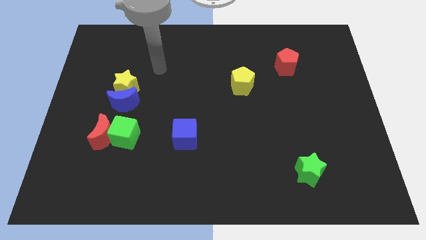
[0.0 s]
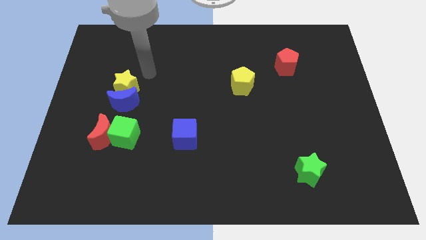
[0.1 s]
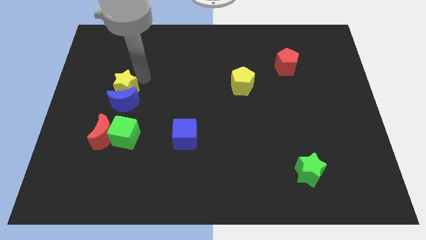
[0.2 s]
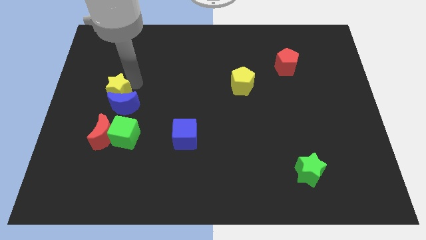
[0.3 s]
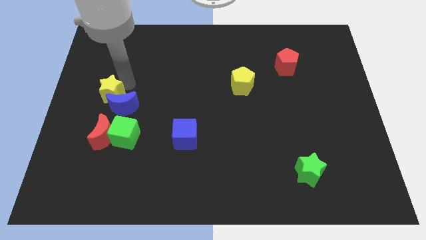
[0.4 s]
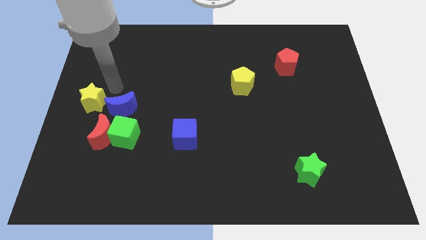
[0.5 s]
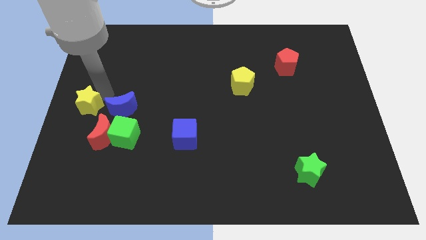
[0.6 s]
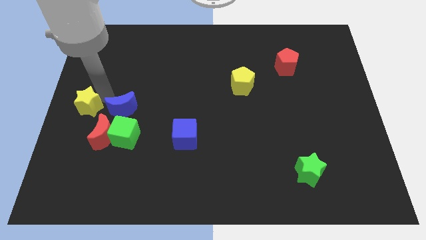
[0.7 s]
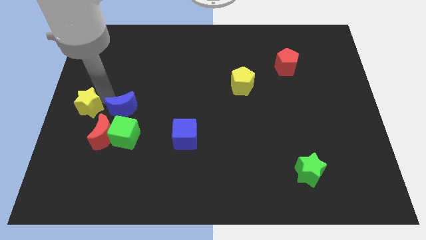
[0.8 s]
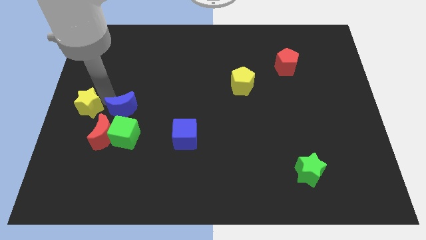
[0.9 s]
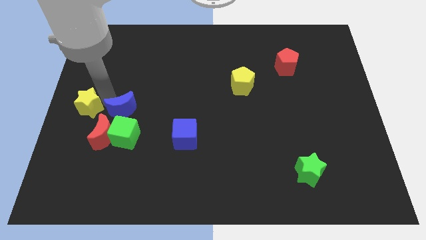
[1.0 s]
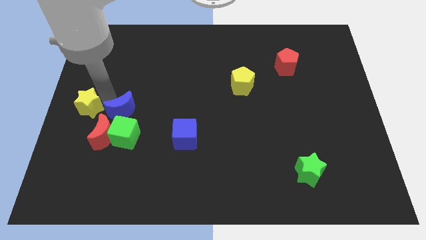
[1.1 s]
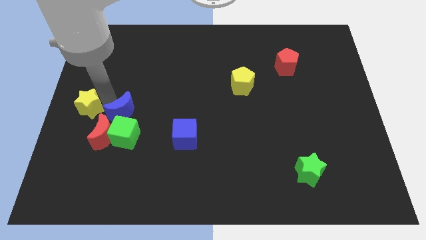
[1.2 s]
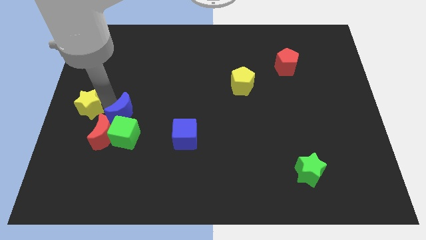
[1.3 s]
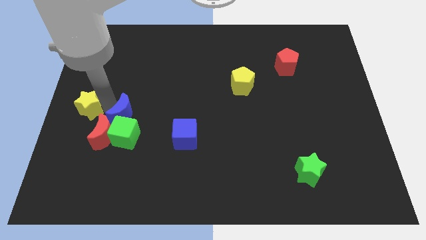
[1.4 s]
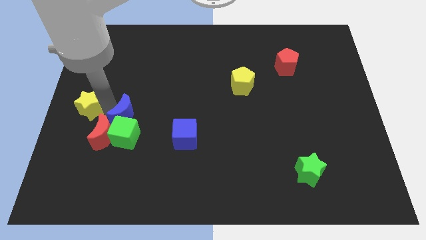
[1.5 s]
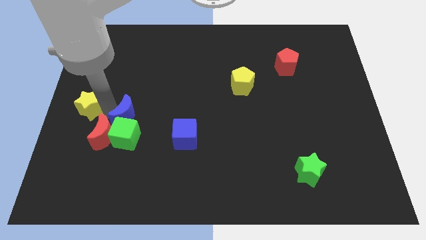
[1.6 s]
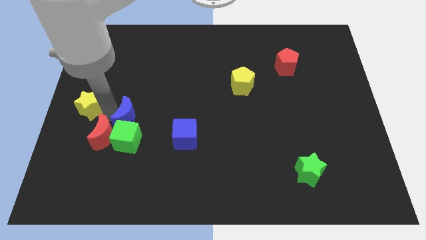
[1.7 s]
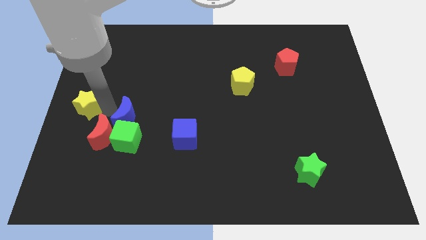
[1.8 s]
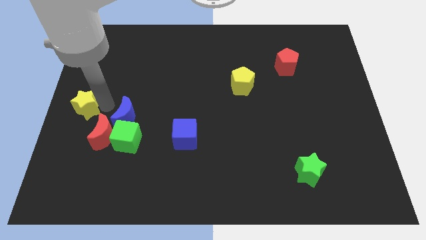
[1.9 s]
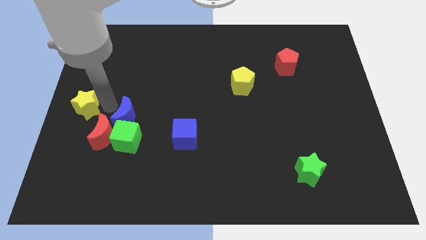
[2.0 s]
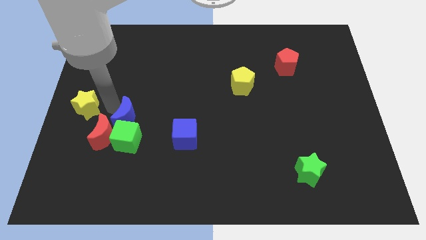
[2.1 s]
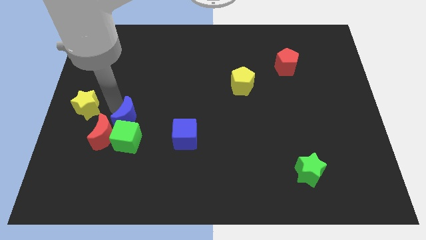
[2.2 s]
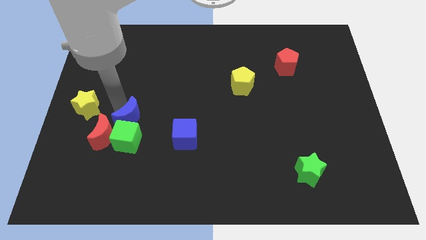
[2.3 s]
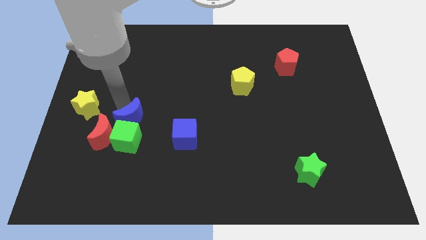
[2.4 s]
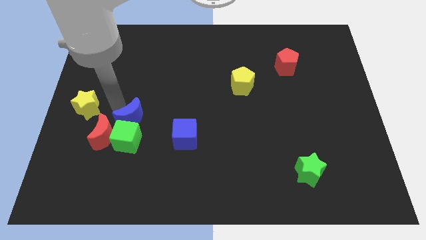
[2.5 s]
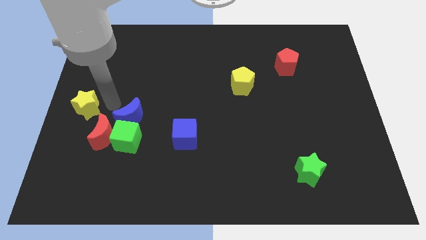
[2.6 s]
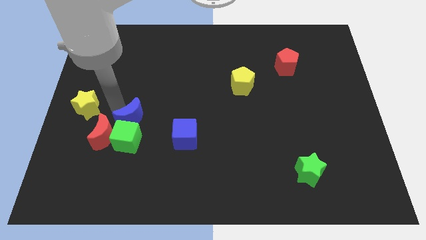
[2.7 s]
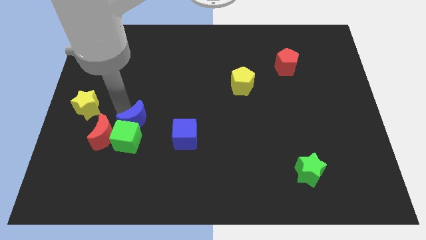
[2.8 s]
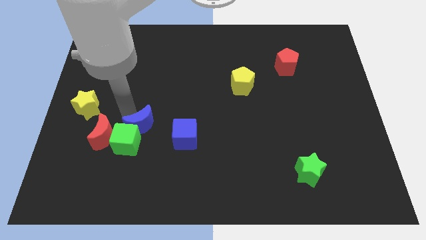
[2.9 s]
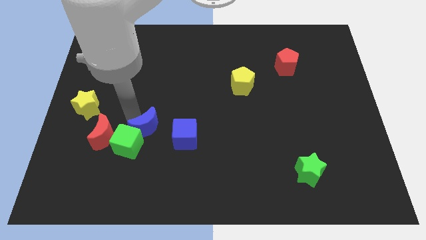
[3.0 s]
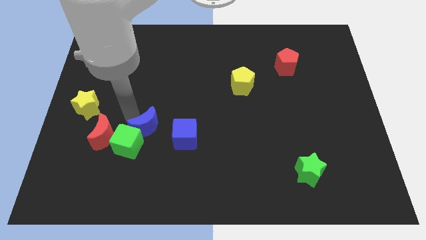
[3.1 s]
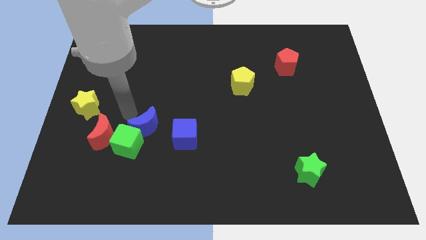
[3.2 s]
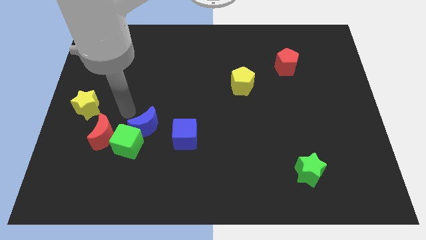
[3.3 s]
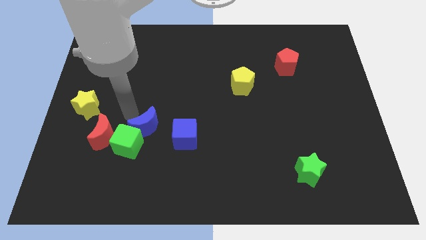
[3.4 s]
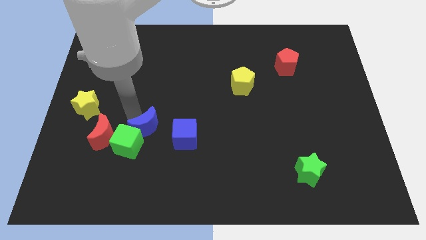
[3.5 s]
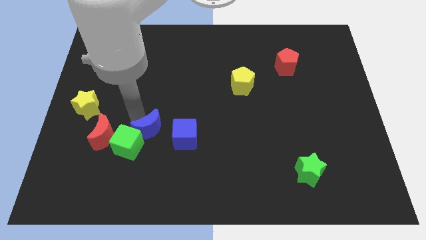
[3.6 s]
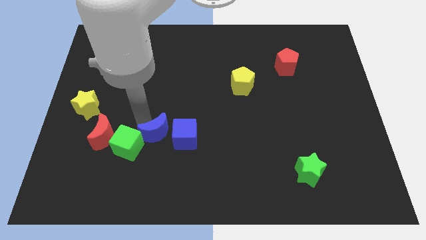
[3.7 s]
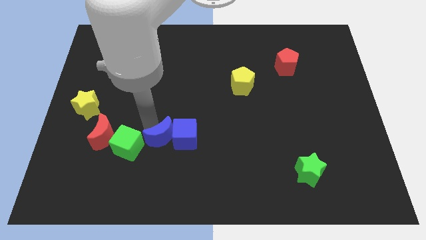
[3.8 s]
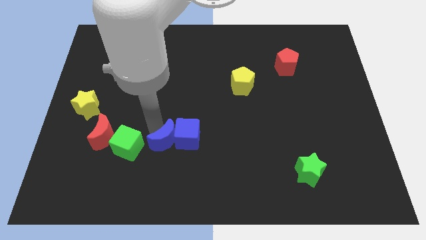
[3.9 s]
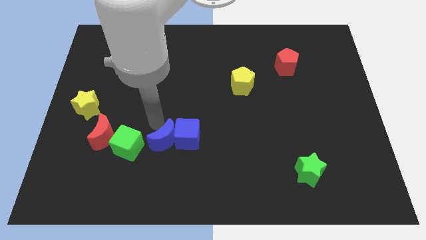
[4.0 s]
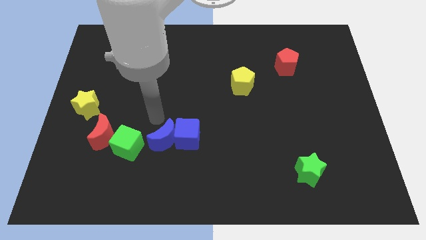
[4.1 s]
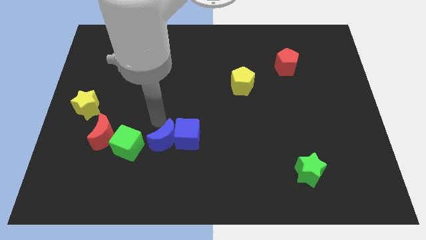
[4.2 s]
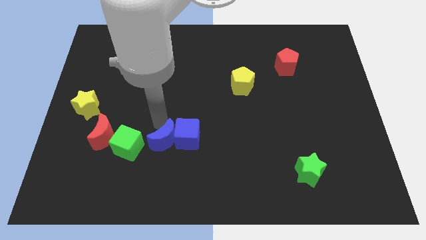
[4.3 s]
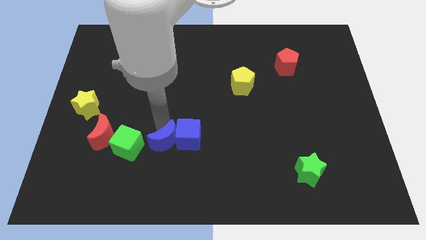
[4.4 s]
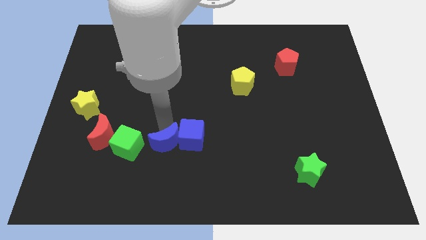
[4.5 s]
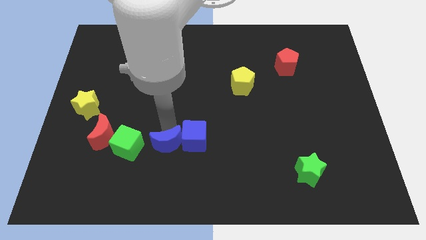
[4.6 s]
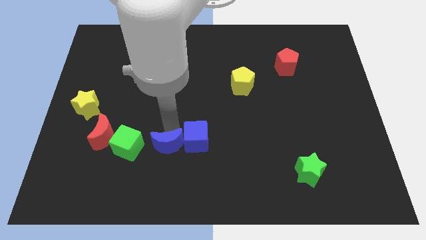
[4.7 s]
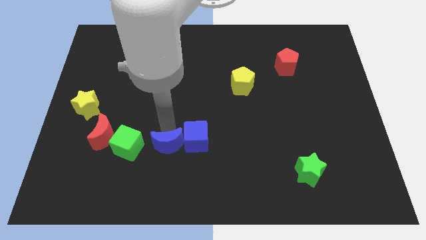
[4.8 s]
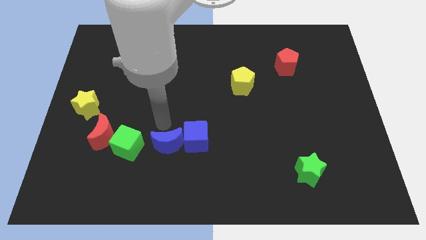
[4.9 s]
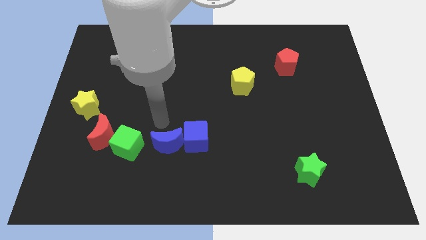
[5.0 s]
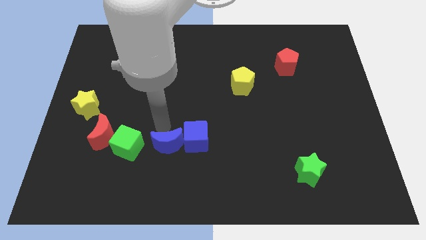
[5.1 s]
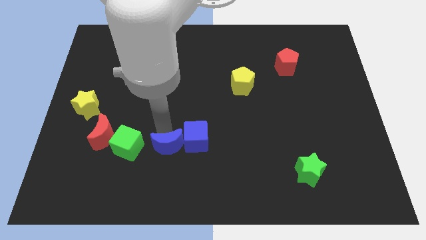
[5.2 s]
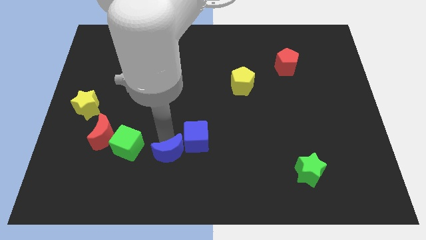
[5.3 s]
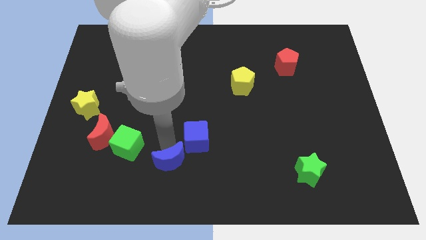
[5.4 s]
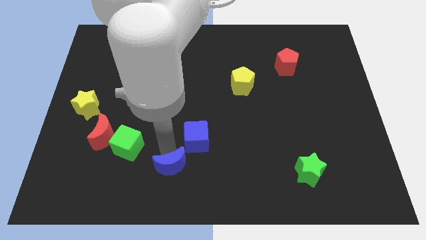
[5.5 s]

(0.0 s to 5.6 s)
push the blue moon to the bottom side

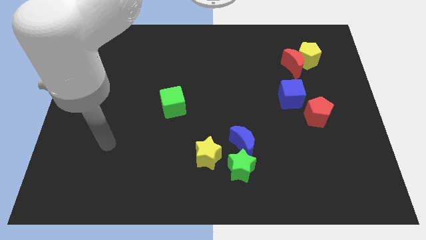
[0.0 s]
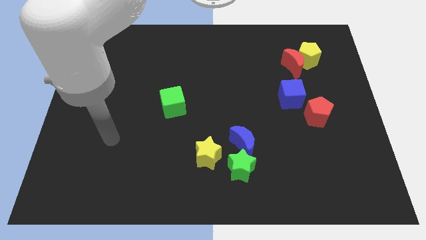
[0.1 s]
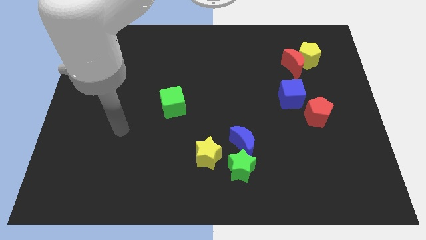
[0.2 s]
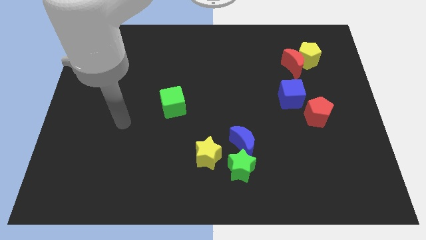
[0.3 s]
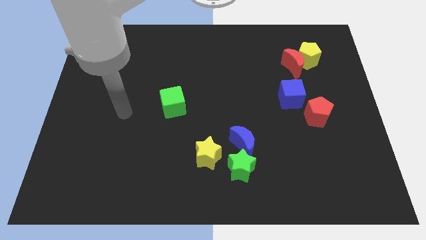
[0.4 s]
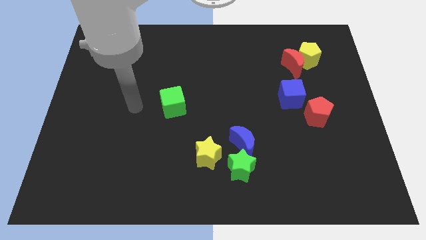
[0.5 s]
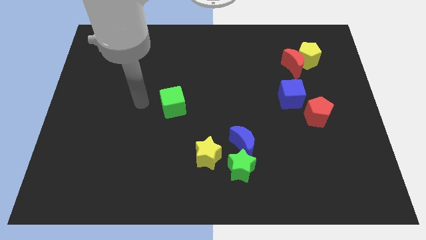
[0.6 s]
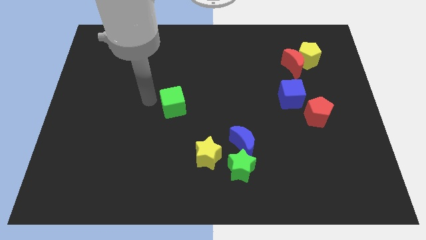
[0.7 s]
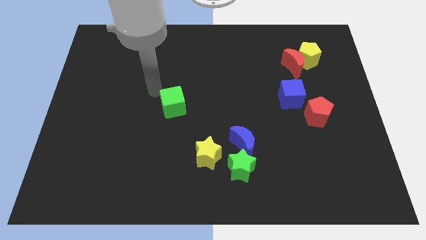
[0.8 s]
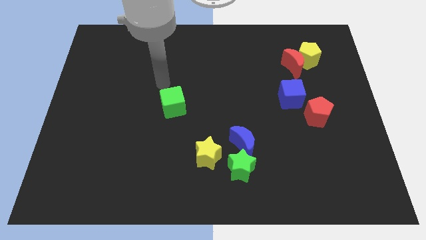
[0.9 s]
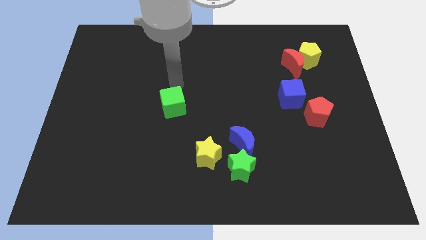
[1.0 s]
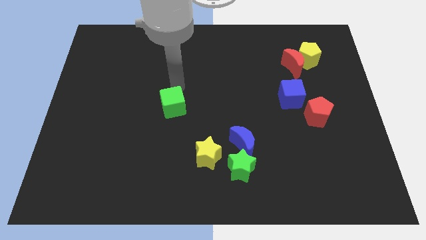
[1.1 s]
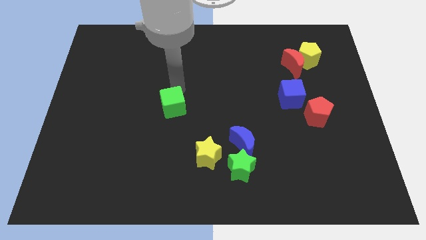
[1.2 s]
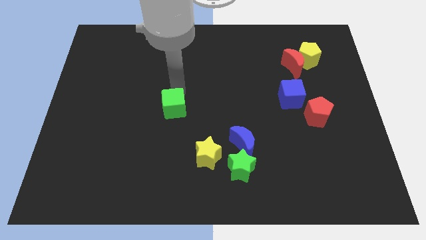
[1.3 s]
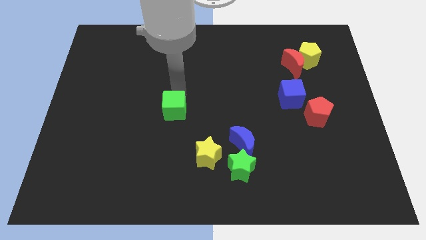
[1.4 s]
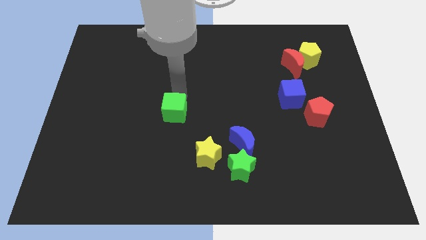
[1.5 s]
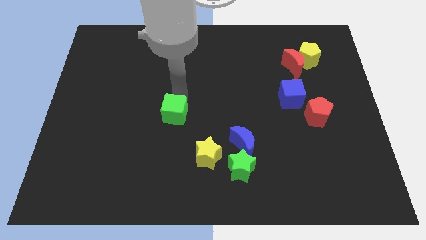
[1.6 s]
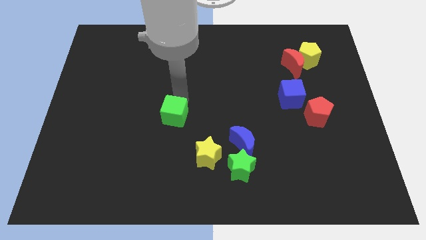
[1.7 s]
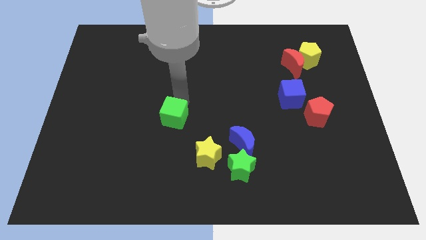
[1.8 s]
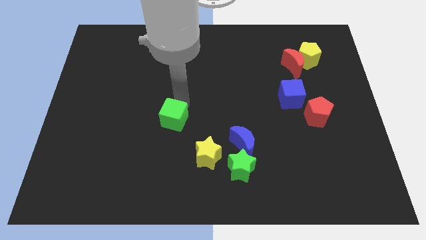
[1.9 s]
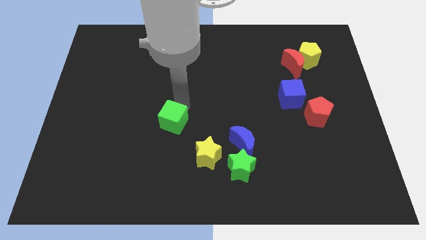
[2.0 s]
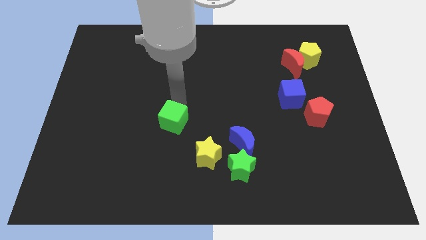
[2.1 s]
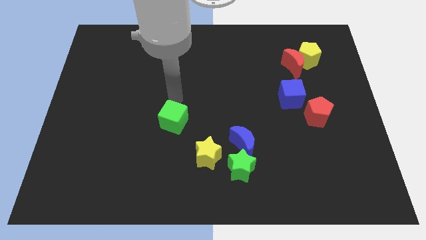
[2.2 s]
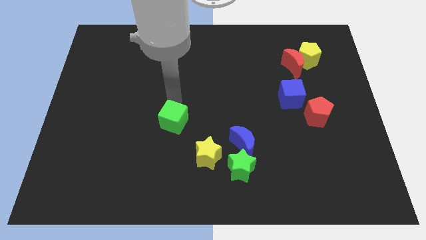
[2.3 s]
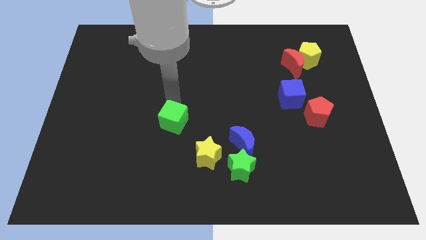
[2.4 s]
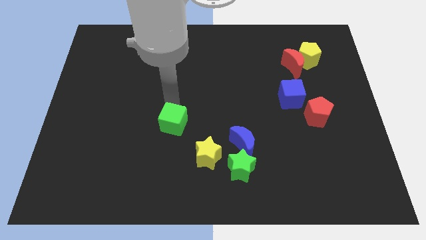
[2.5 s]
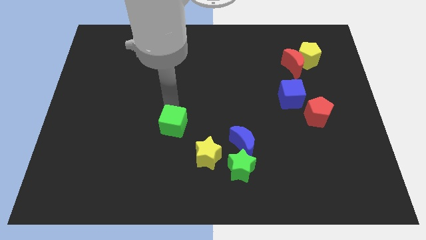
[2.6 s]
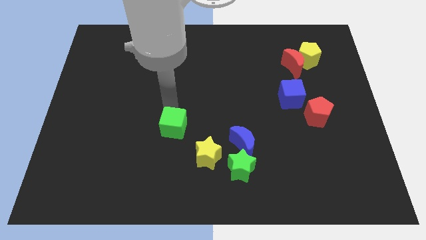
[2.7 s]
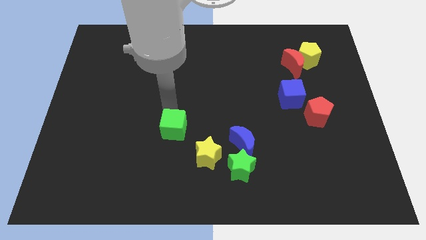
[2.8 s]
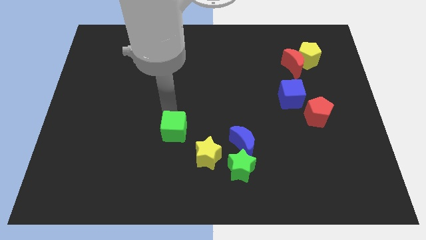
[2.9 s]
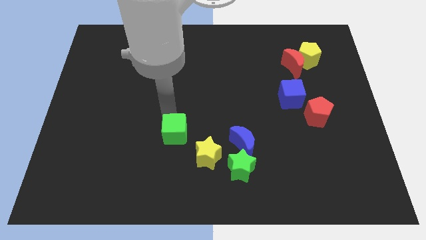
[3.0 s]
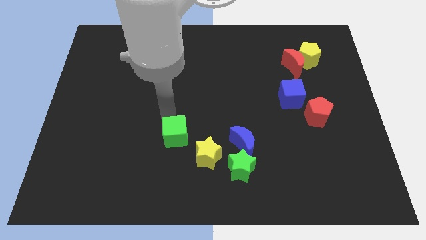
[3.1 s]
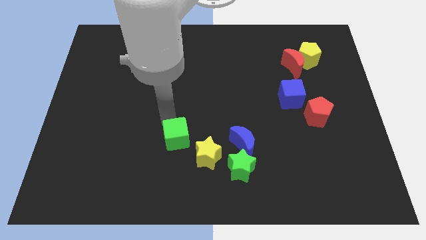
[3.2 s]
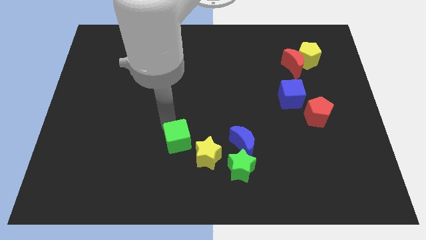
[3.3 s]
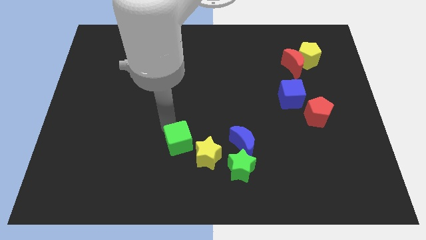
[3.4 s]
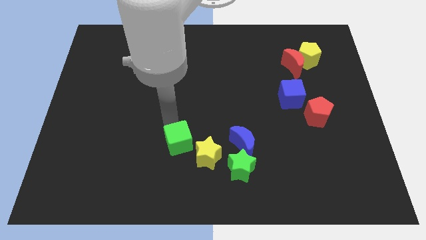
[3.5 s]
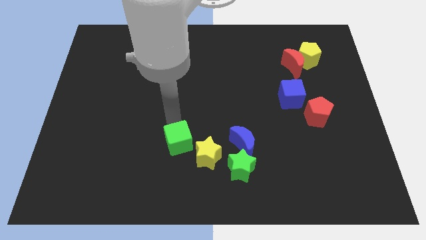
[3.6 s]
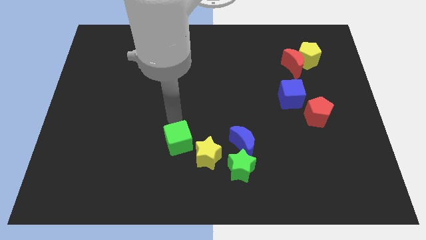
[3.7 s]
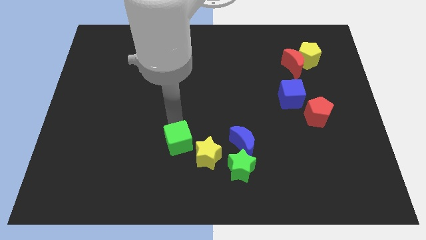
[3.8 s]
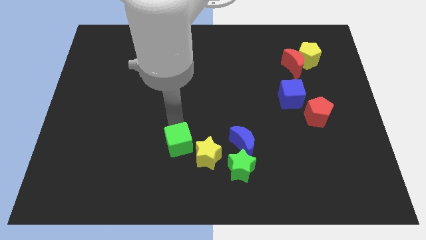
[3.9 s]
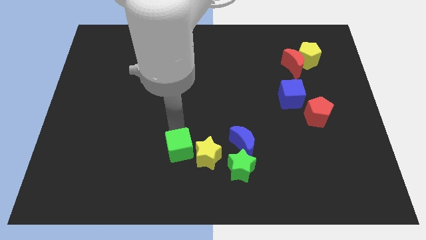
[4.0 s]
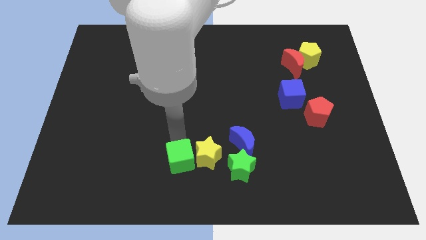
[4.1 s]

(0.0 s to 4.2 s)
push the green cube to the bottom
